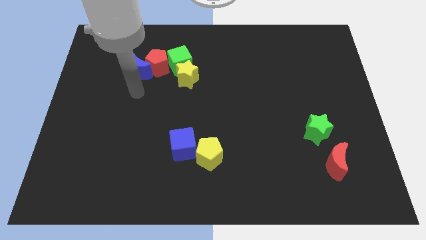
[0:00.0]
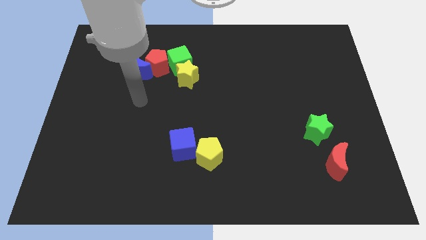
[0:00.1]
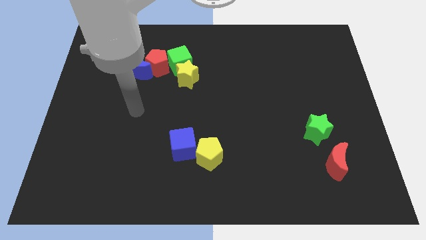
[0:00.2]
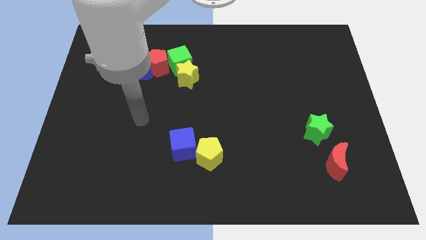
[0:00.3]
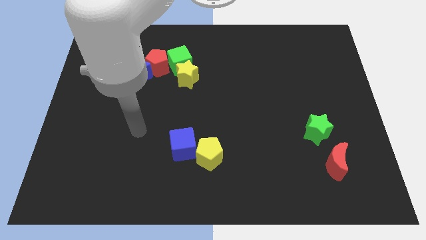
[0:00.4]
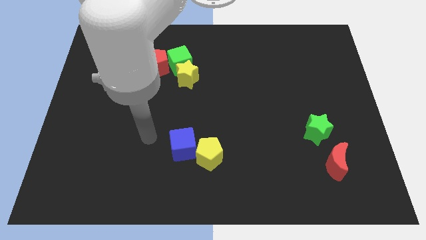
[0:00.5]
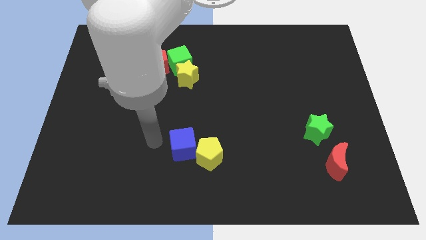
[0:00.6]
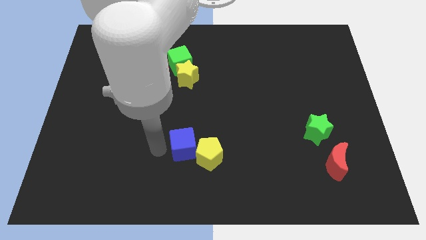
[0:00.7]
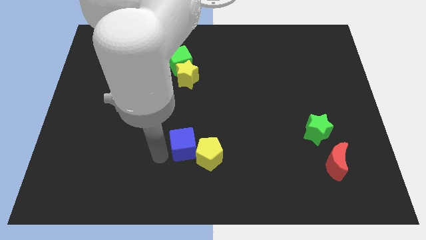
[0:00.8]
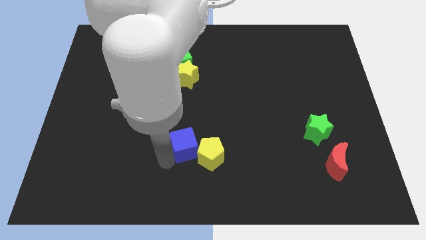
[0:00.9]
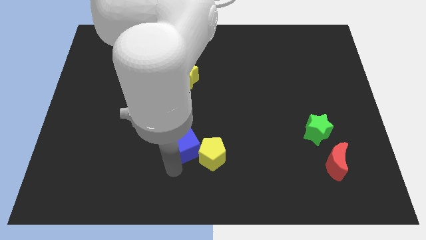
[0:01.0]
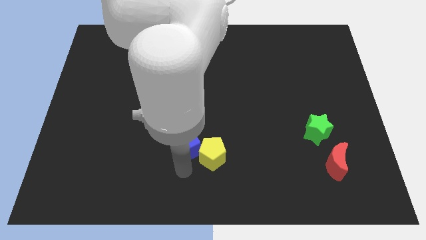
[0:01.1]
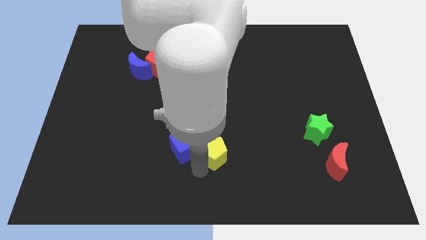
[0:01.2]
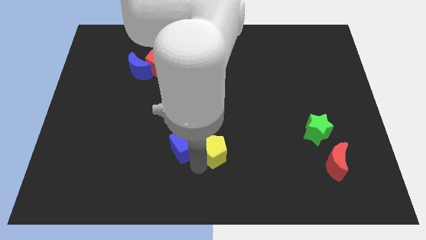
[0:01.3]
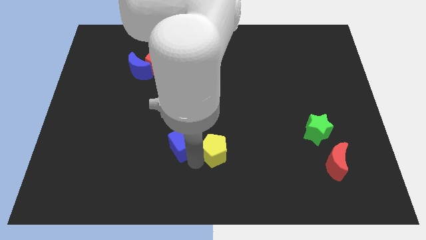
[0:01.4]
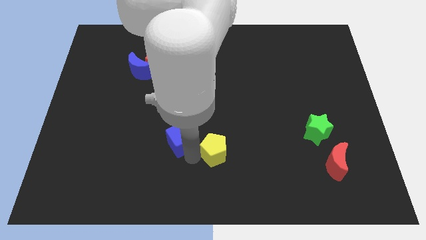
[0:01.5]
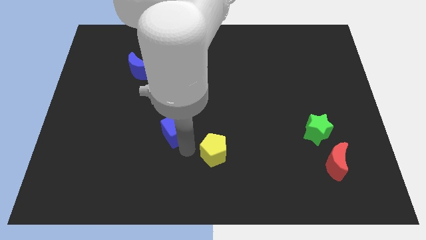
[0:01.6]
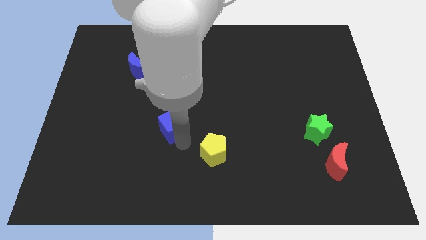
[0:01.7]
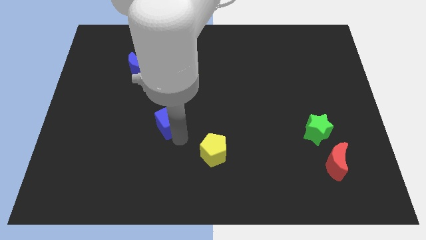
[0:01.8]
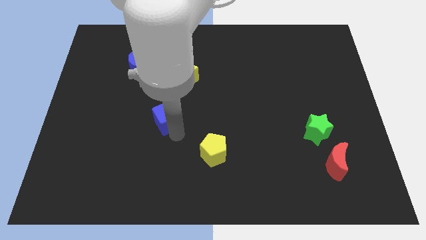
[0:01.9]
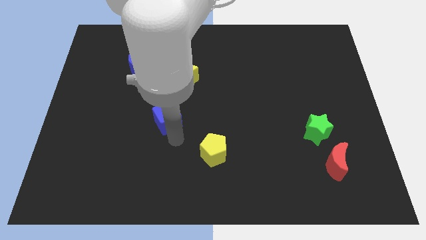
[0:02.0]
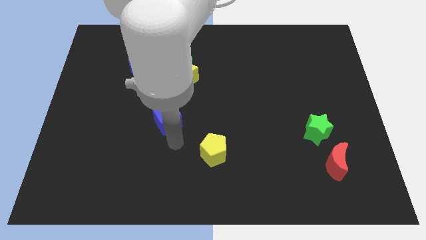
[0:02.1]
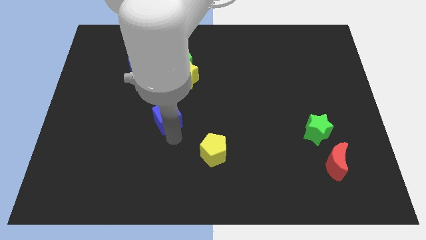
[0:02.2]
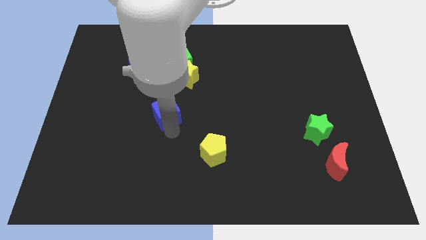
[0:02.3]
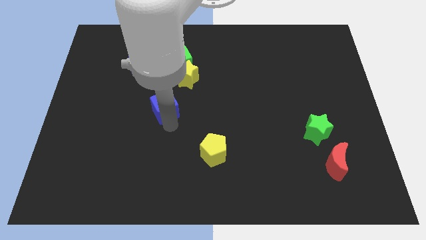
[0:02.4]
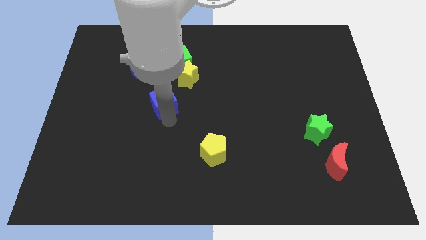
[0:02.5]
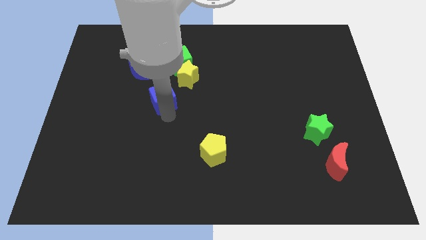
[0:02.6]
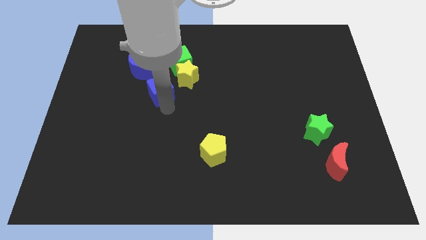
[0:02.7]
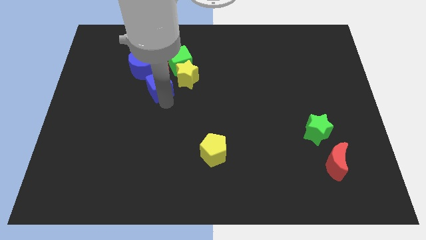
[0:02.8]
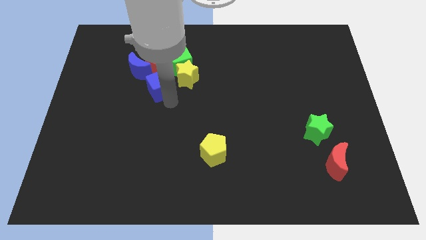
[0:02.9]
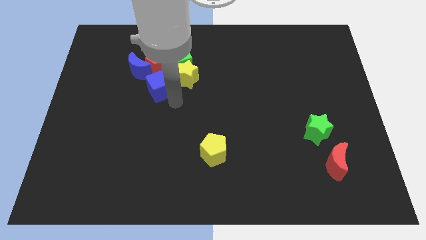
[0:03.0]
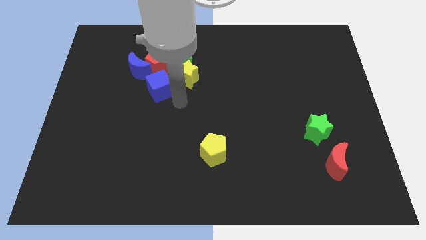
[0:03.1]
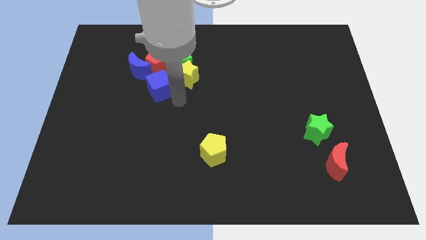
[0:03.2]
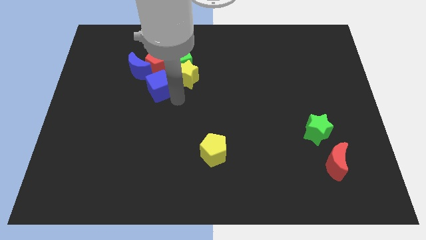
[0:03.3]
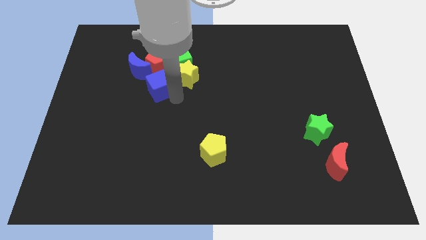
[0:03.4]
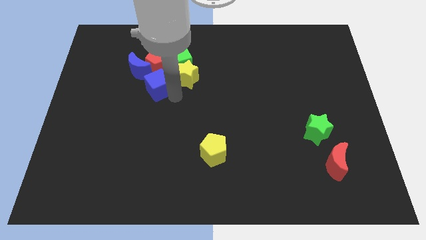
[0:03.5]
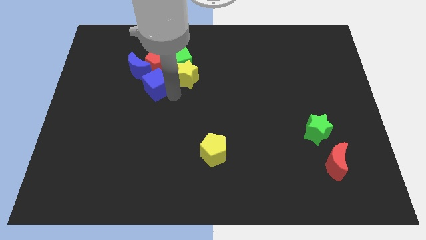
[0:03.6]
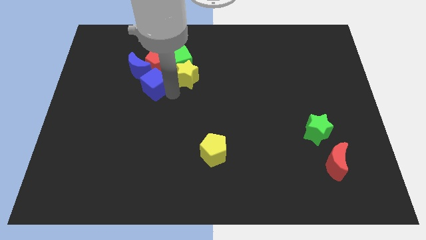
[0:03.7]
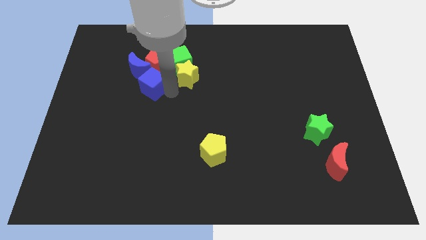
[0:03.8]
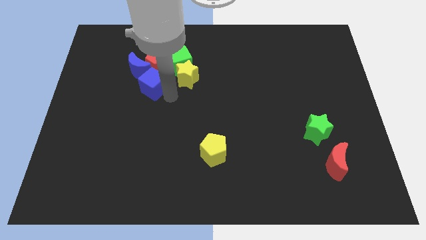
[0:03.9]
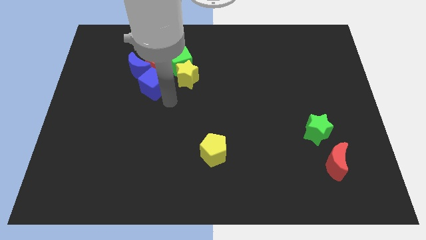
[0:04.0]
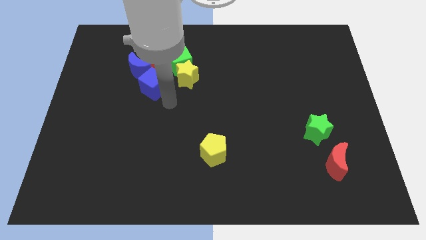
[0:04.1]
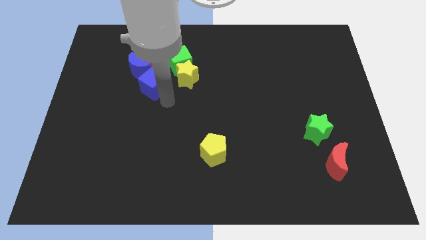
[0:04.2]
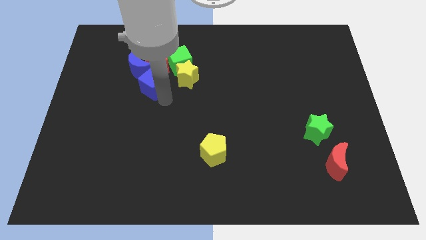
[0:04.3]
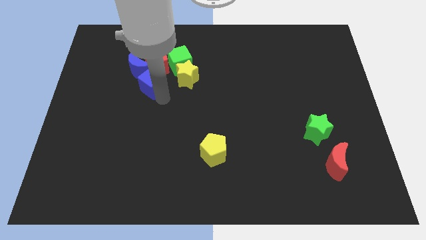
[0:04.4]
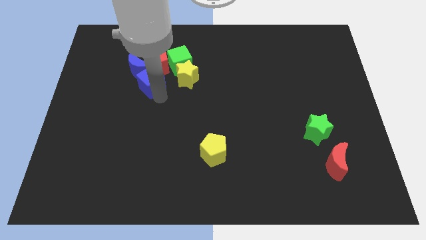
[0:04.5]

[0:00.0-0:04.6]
put the blue cube to the blue moon

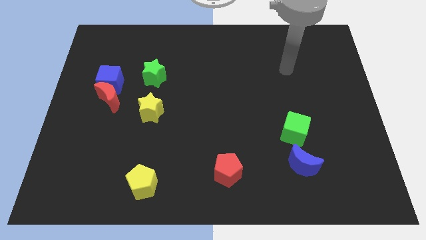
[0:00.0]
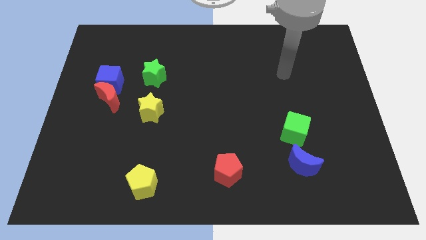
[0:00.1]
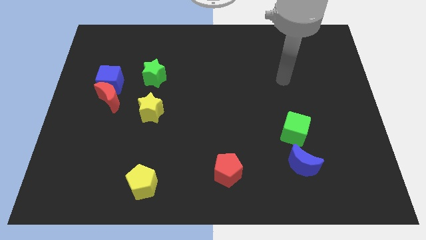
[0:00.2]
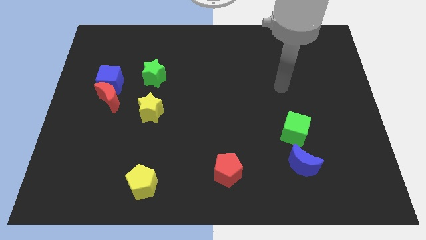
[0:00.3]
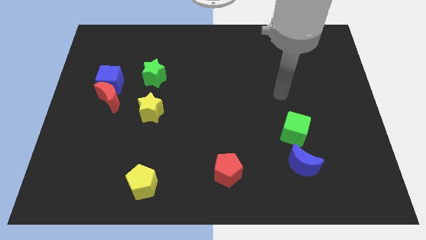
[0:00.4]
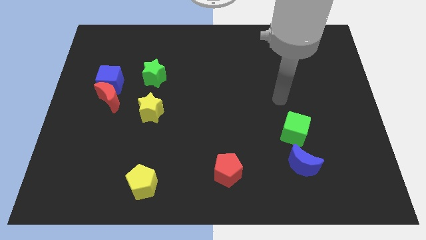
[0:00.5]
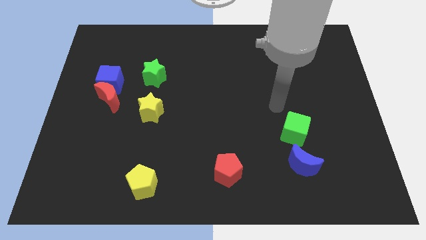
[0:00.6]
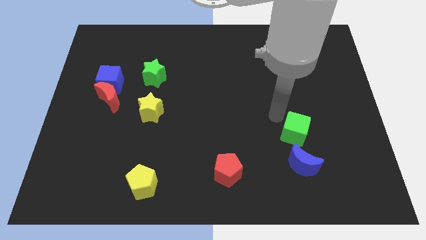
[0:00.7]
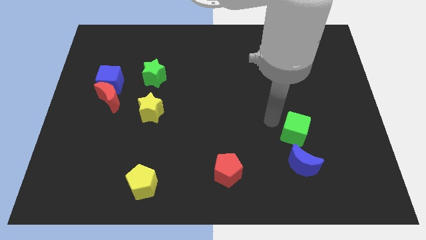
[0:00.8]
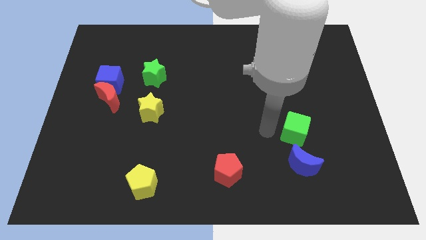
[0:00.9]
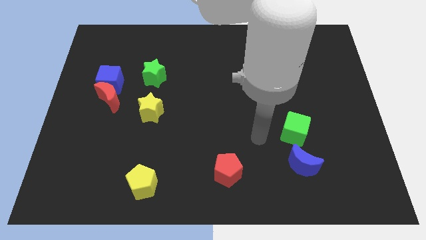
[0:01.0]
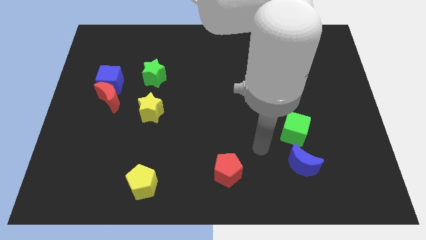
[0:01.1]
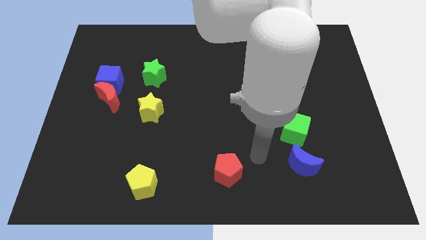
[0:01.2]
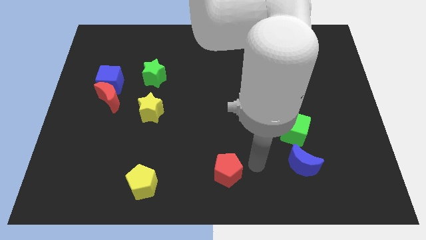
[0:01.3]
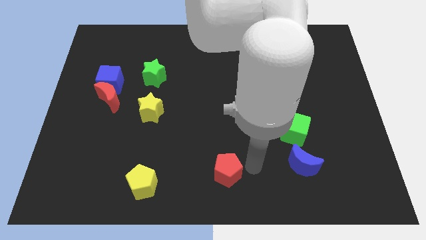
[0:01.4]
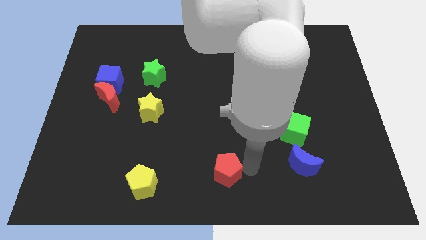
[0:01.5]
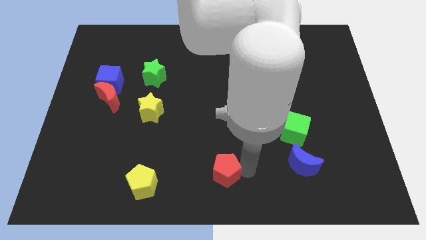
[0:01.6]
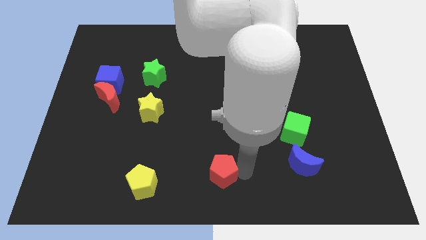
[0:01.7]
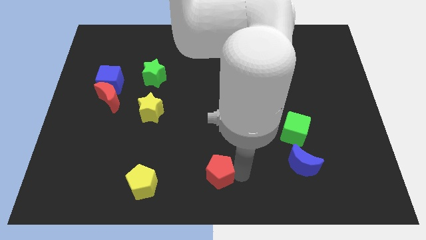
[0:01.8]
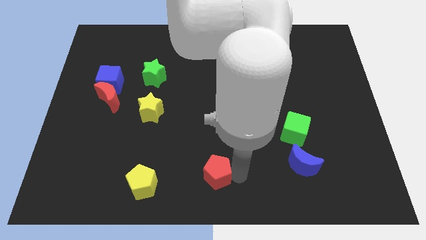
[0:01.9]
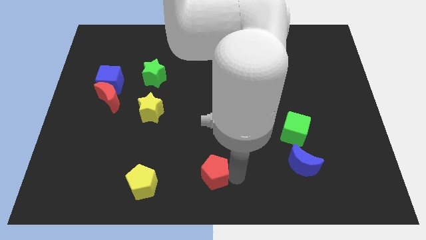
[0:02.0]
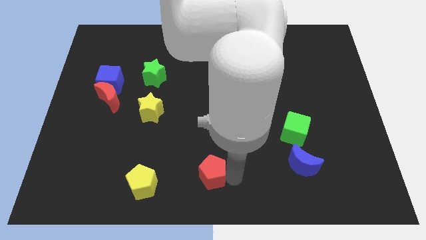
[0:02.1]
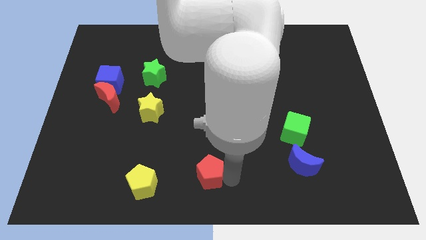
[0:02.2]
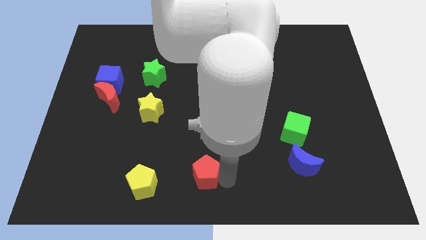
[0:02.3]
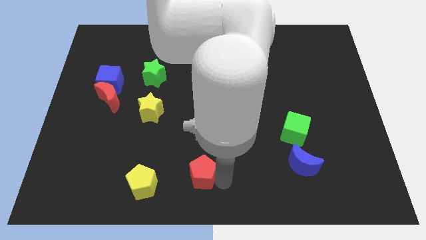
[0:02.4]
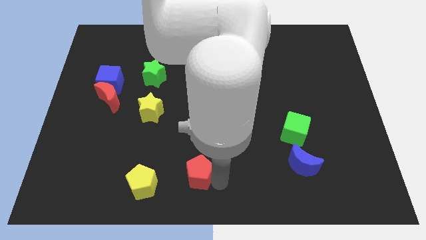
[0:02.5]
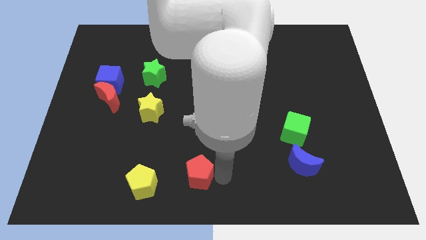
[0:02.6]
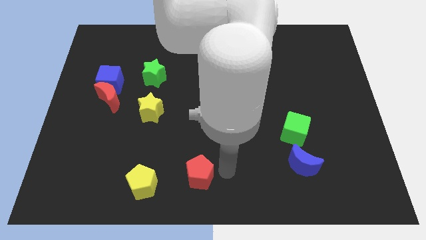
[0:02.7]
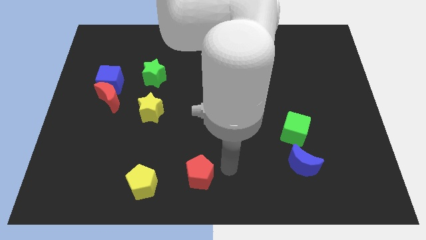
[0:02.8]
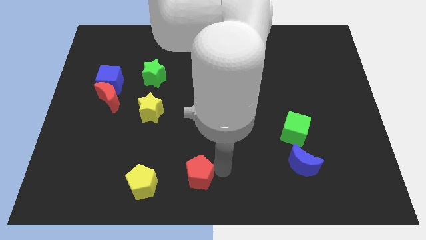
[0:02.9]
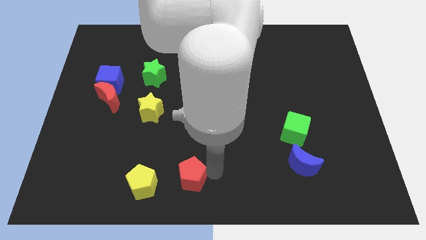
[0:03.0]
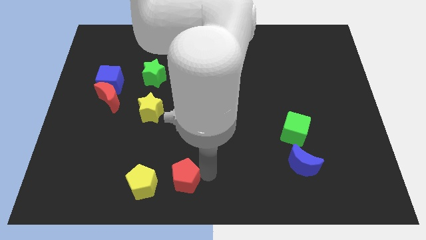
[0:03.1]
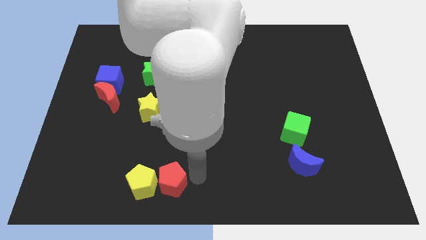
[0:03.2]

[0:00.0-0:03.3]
put the red pentagon next to the yellow pentagon
